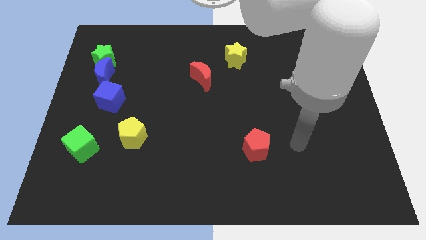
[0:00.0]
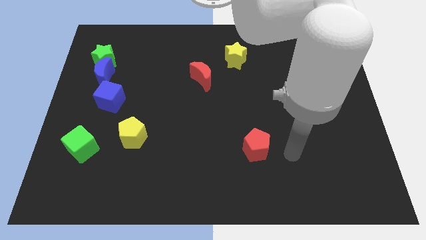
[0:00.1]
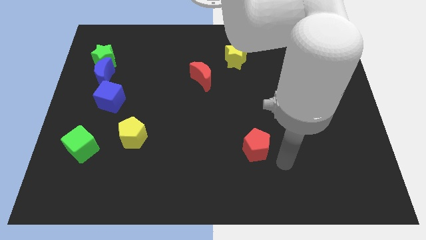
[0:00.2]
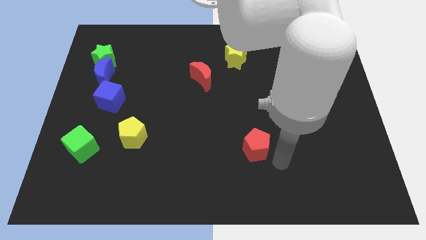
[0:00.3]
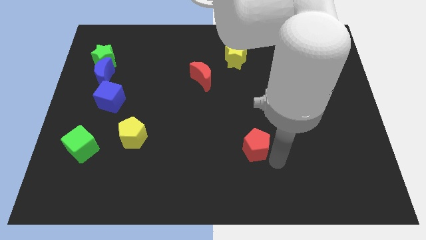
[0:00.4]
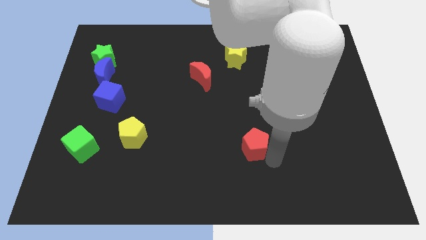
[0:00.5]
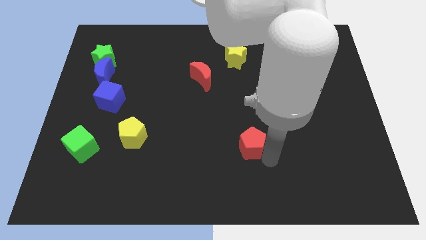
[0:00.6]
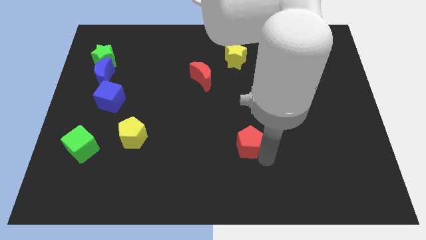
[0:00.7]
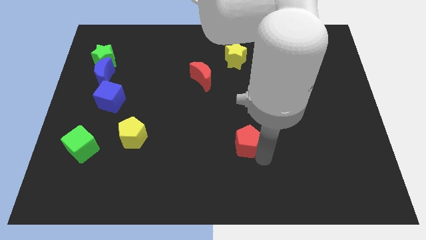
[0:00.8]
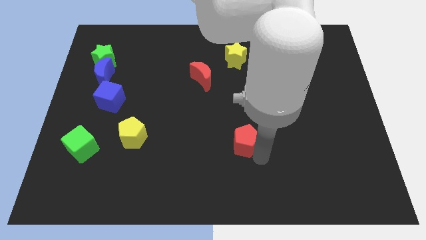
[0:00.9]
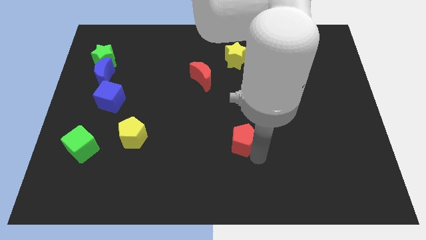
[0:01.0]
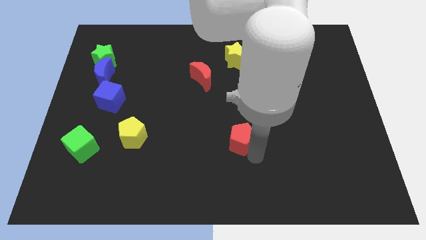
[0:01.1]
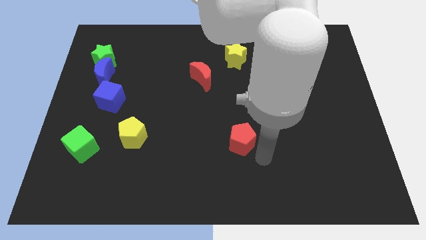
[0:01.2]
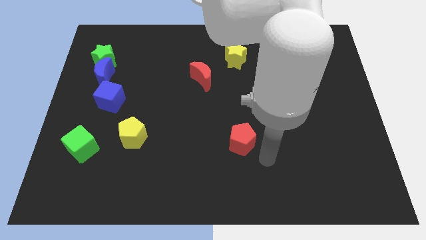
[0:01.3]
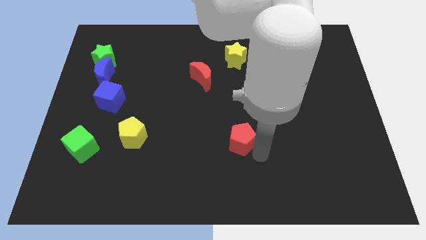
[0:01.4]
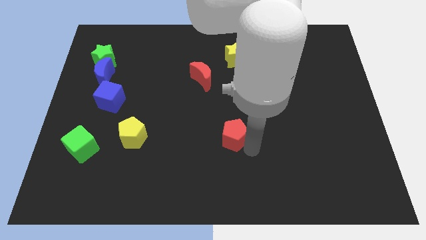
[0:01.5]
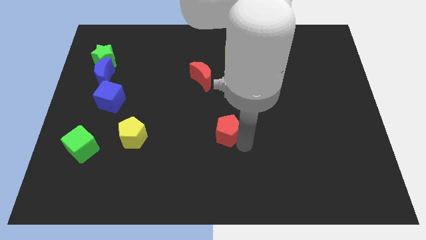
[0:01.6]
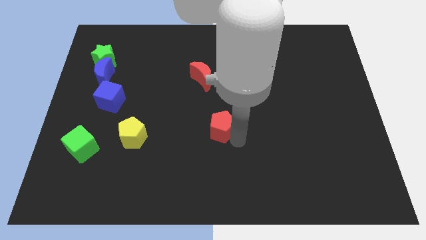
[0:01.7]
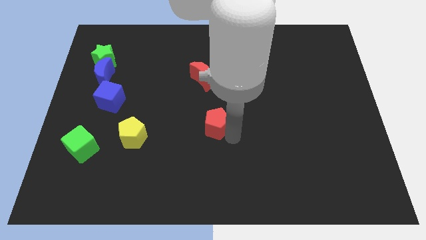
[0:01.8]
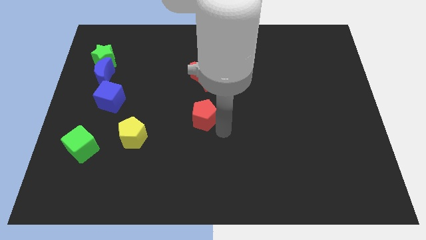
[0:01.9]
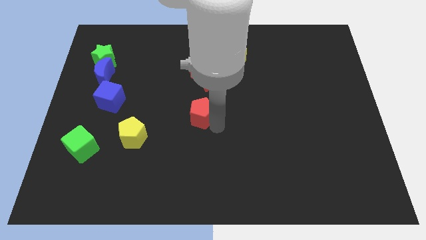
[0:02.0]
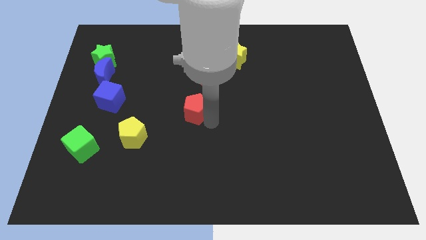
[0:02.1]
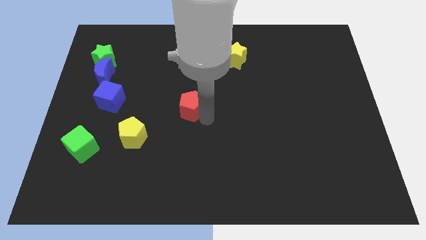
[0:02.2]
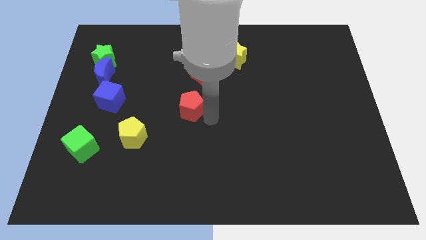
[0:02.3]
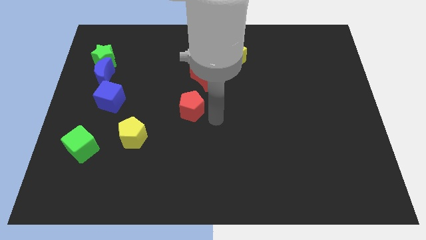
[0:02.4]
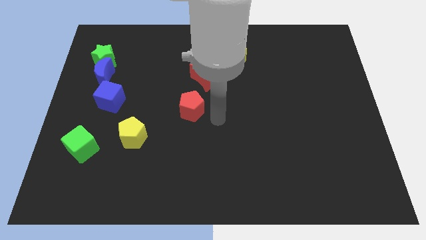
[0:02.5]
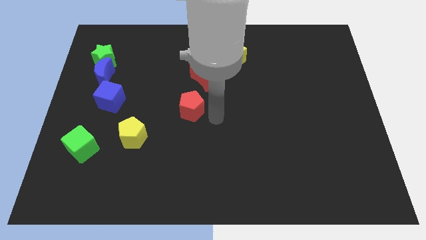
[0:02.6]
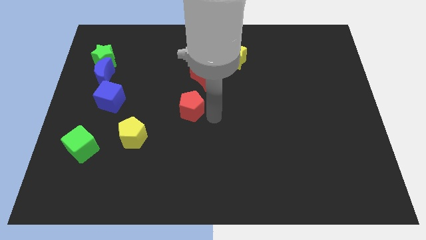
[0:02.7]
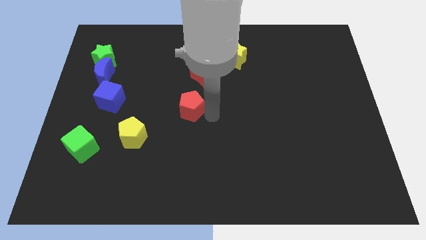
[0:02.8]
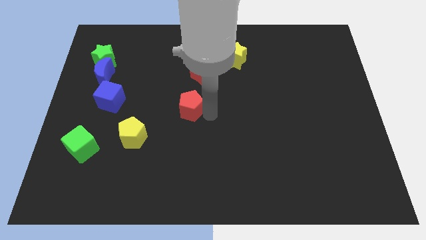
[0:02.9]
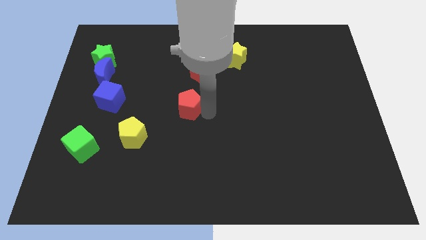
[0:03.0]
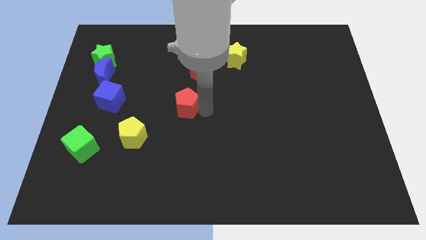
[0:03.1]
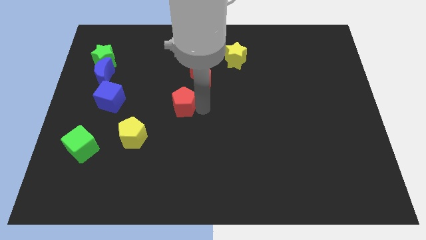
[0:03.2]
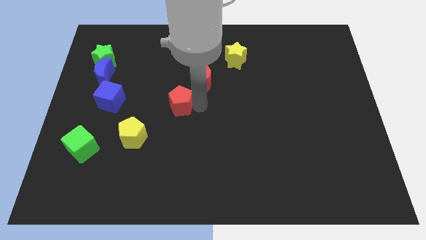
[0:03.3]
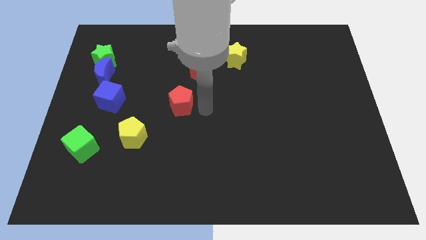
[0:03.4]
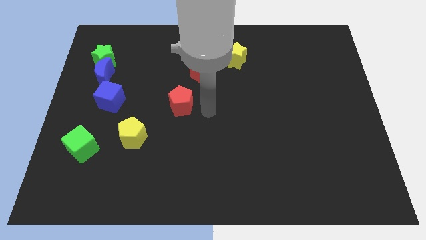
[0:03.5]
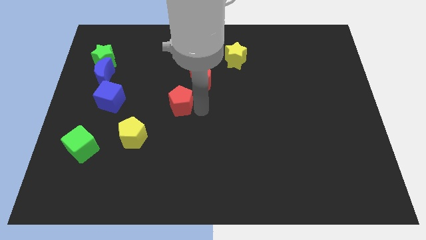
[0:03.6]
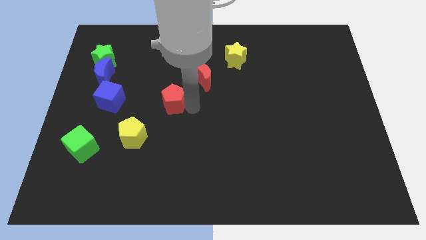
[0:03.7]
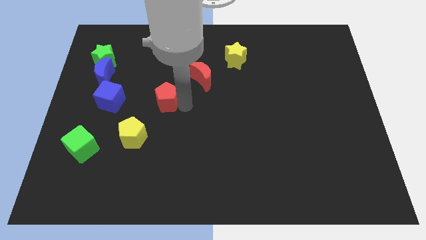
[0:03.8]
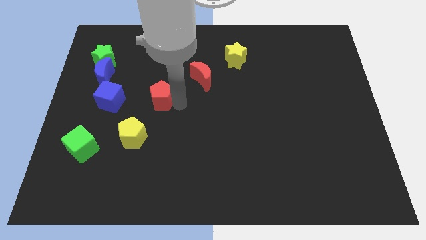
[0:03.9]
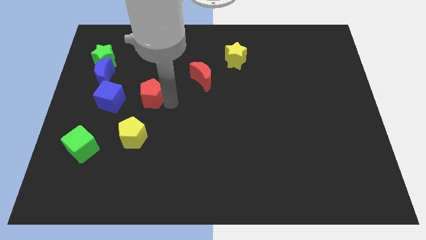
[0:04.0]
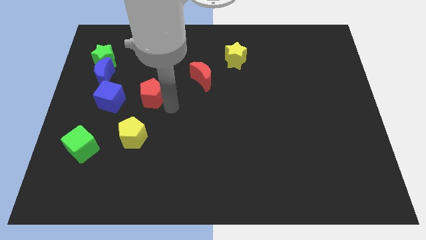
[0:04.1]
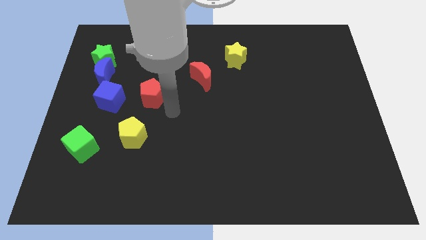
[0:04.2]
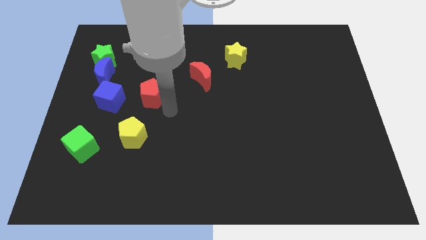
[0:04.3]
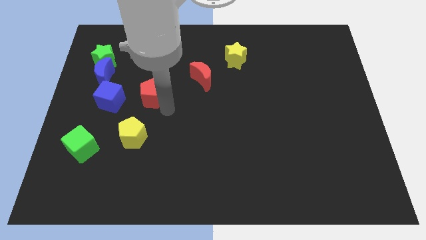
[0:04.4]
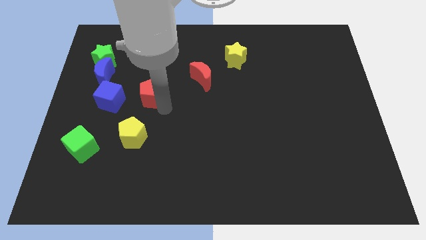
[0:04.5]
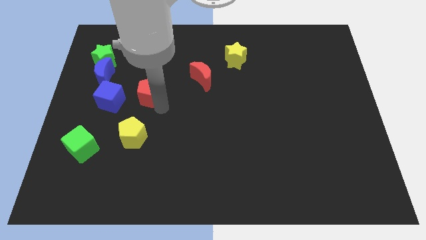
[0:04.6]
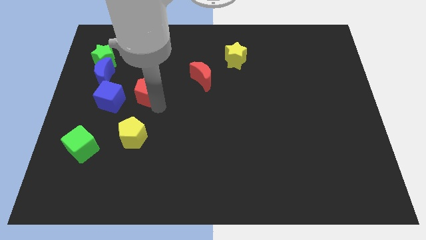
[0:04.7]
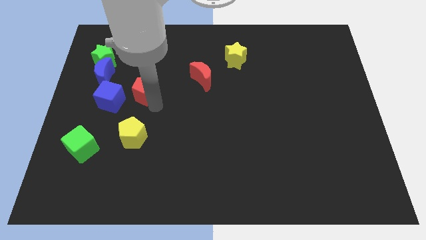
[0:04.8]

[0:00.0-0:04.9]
put the red pentagon to the top right side of the blue cube

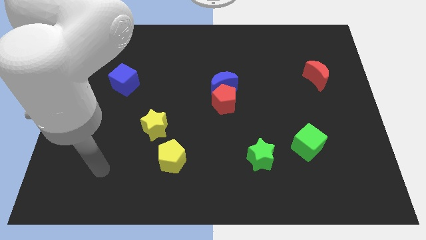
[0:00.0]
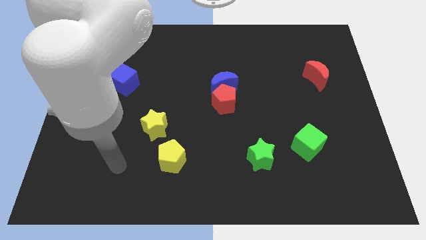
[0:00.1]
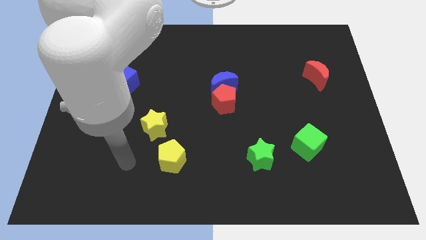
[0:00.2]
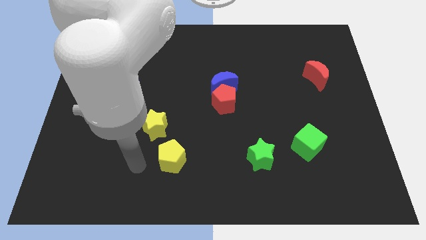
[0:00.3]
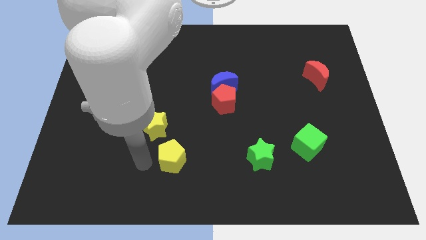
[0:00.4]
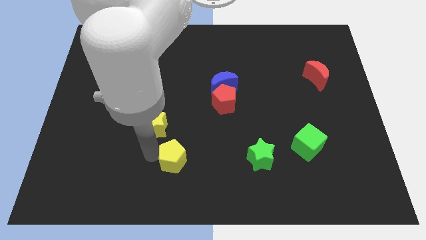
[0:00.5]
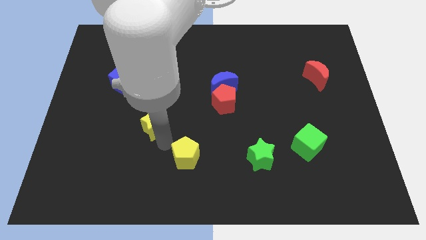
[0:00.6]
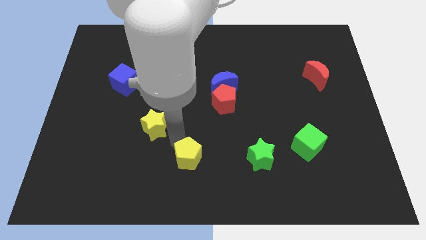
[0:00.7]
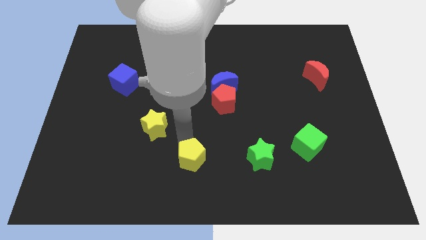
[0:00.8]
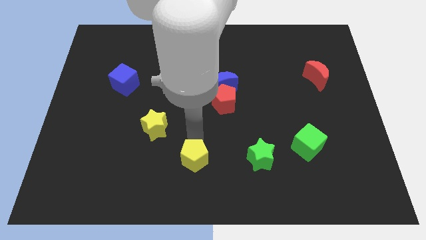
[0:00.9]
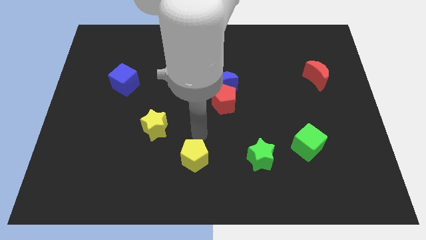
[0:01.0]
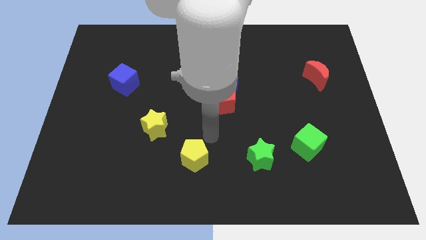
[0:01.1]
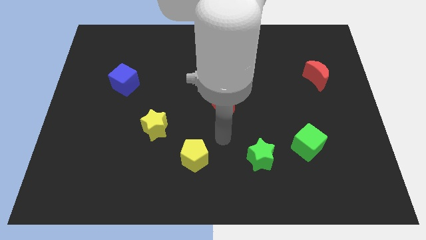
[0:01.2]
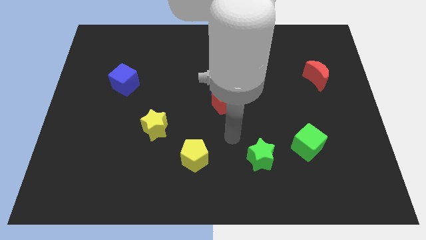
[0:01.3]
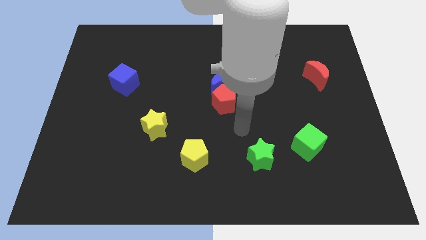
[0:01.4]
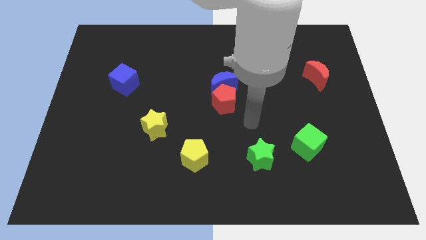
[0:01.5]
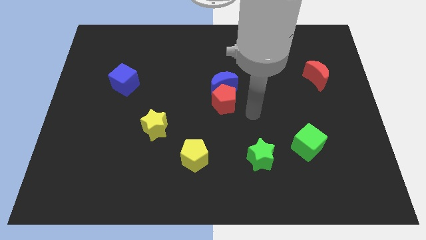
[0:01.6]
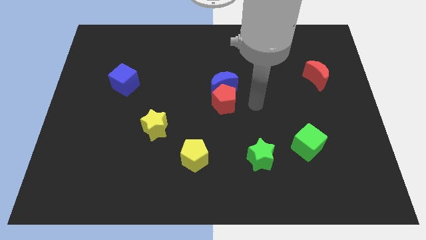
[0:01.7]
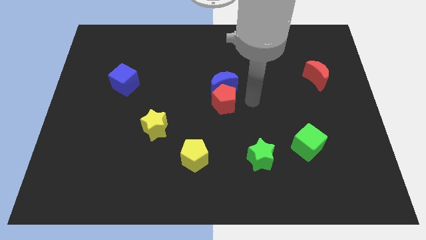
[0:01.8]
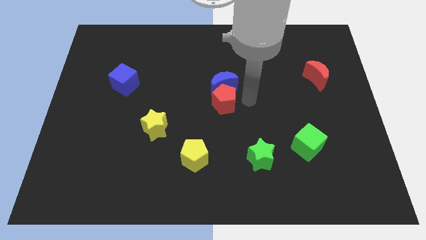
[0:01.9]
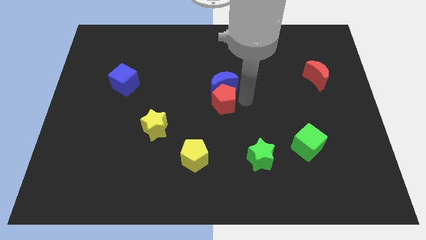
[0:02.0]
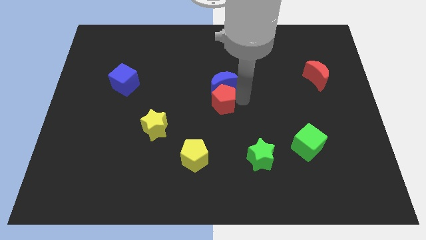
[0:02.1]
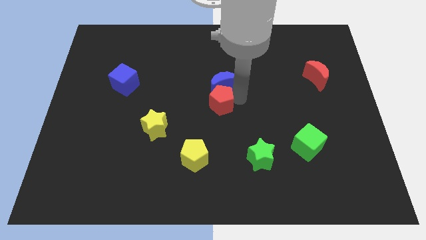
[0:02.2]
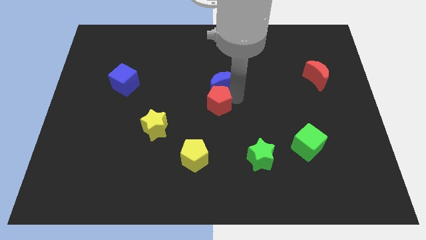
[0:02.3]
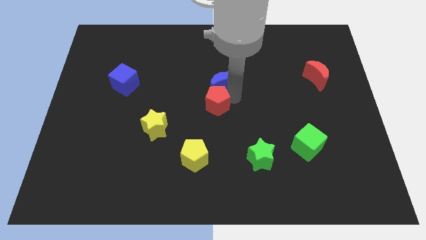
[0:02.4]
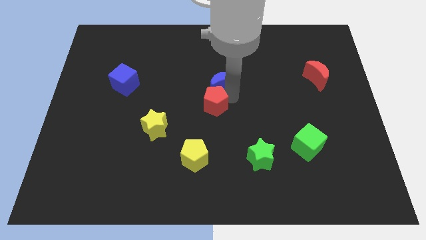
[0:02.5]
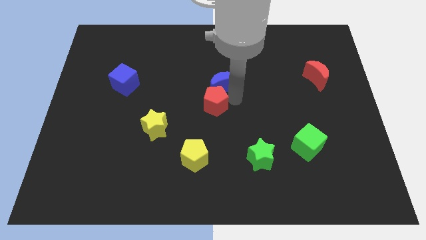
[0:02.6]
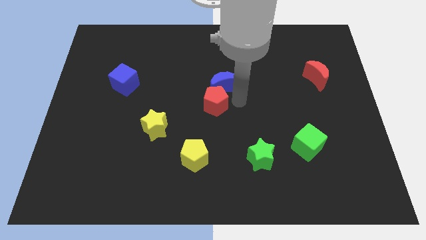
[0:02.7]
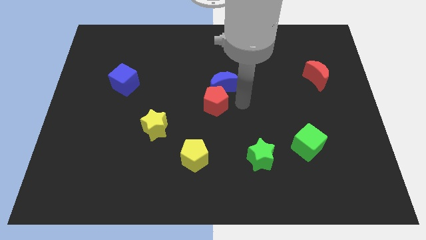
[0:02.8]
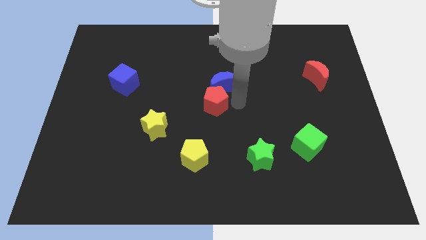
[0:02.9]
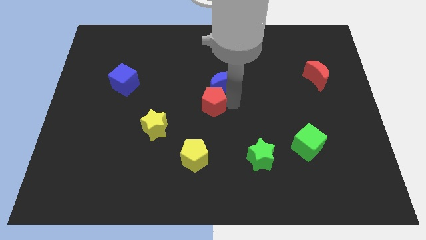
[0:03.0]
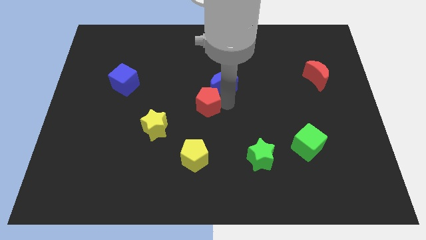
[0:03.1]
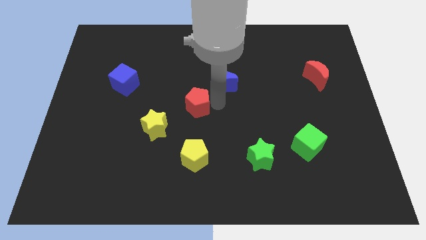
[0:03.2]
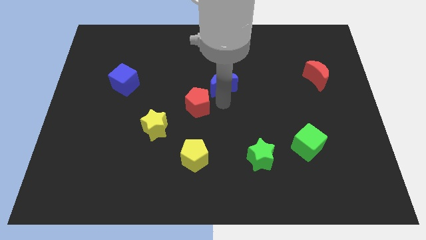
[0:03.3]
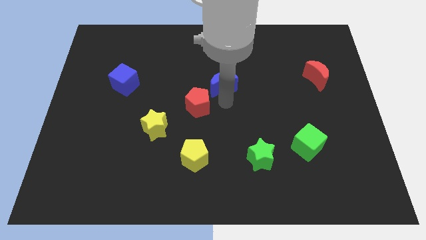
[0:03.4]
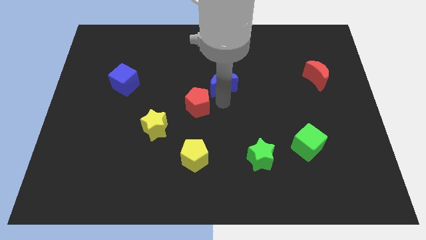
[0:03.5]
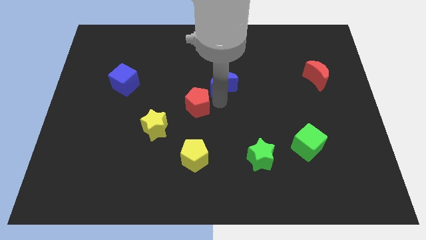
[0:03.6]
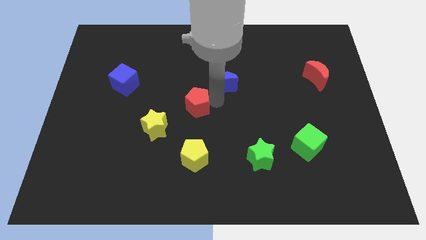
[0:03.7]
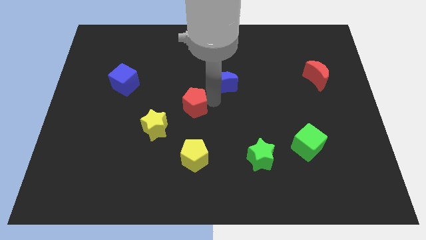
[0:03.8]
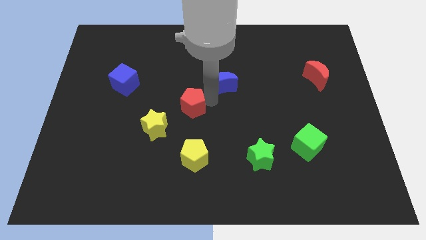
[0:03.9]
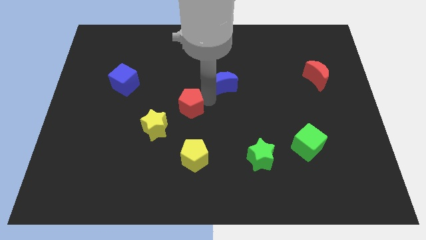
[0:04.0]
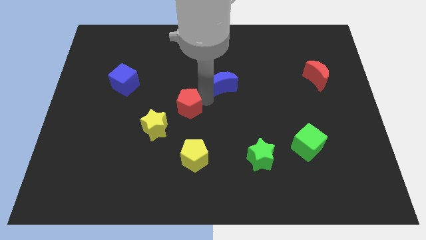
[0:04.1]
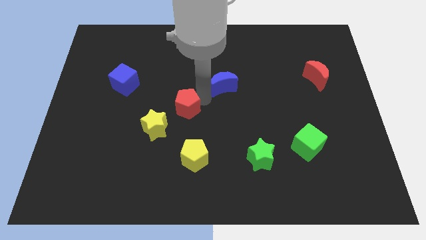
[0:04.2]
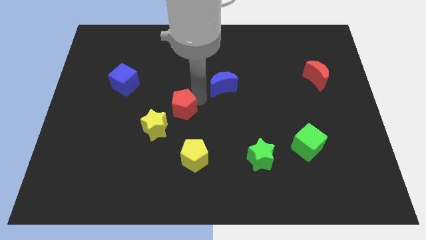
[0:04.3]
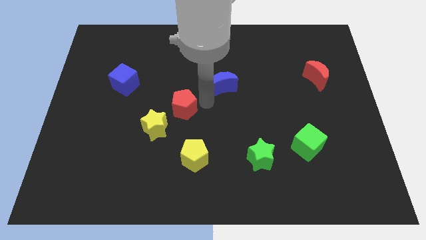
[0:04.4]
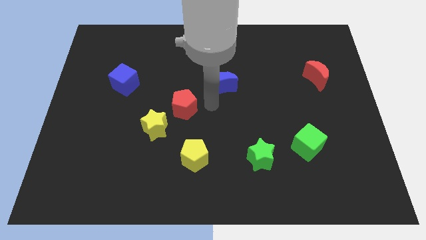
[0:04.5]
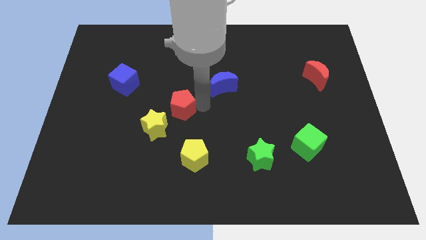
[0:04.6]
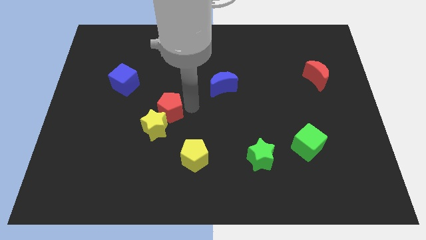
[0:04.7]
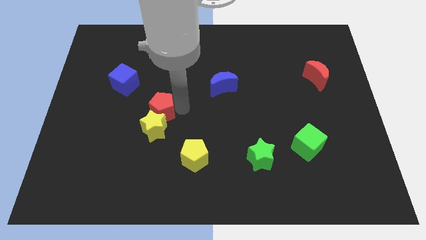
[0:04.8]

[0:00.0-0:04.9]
slide the red pentagon diagonally up and to the left of the yellow star
